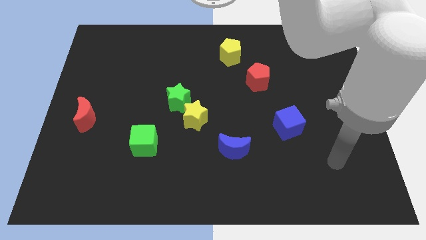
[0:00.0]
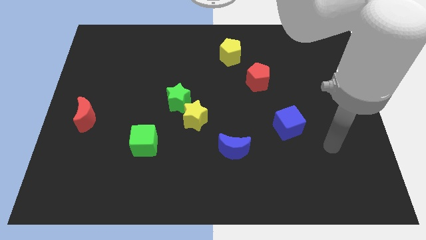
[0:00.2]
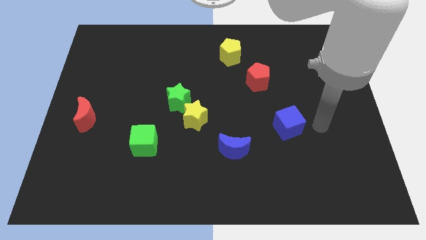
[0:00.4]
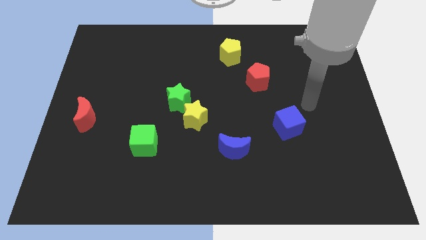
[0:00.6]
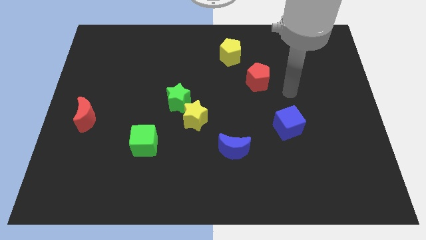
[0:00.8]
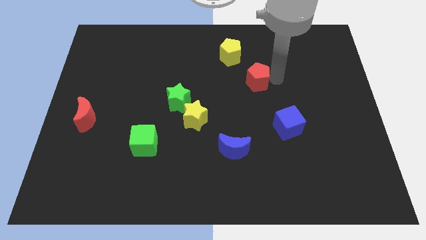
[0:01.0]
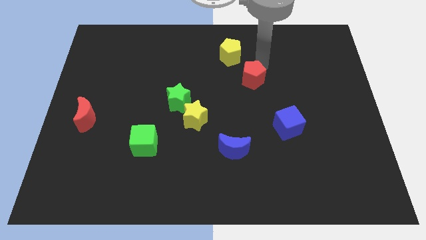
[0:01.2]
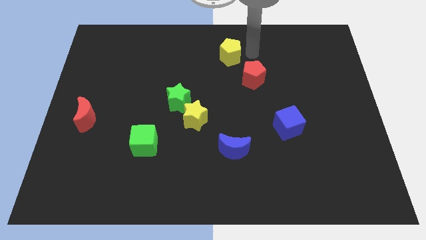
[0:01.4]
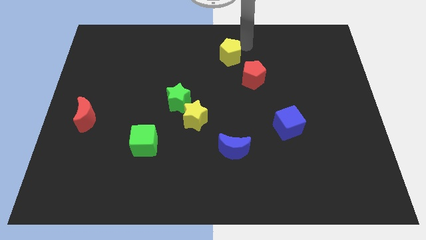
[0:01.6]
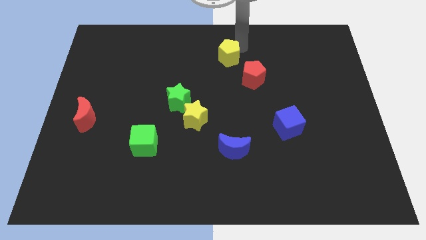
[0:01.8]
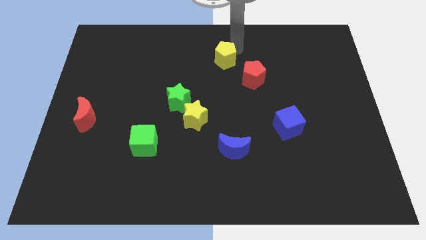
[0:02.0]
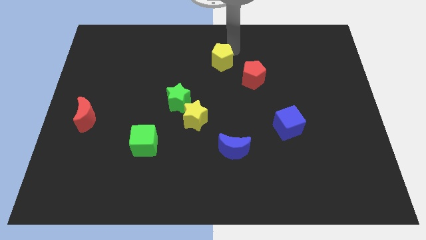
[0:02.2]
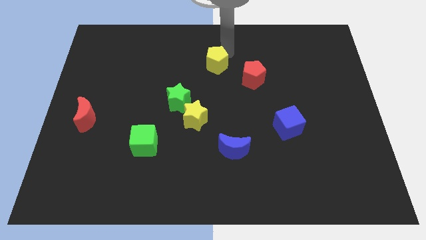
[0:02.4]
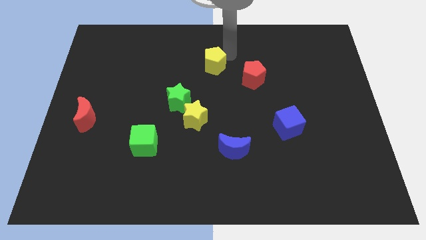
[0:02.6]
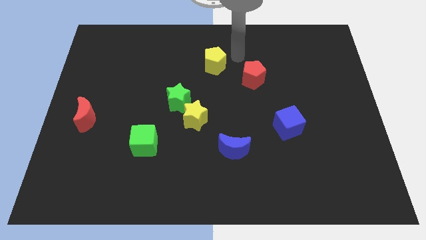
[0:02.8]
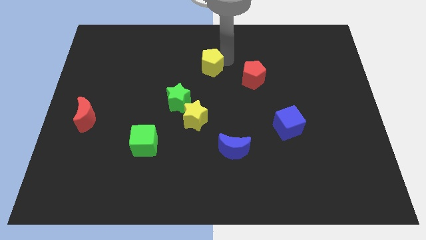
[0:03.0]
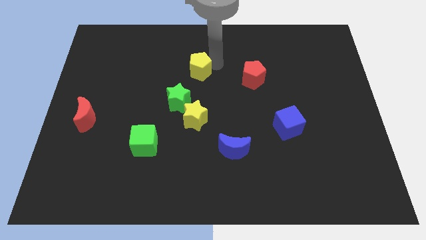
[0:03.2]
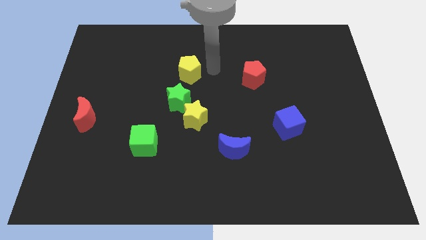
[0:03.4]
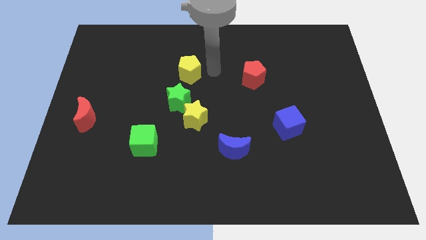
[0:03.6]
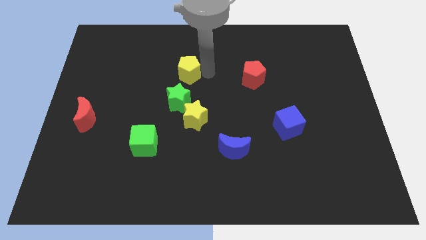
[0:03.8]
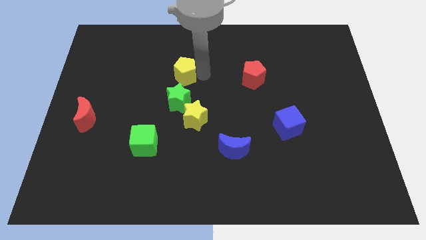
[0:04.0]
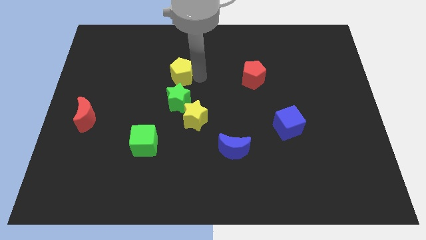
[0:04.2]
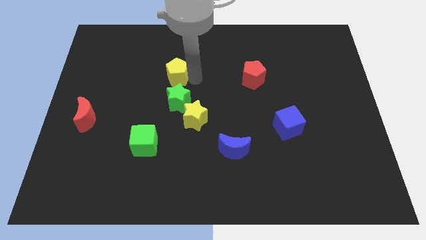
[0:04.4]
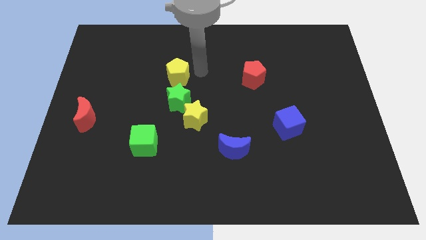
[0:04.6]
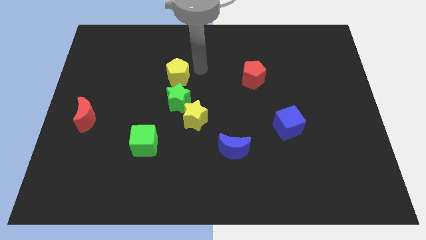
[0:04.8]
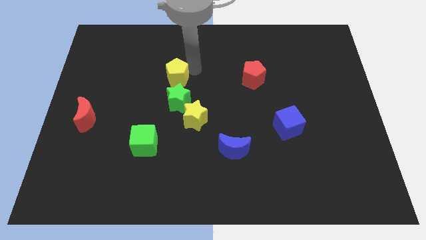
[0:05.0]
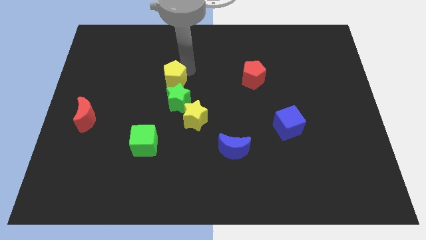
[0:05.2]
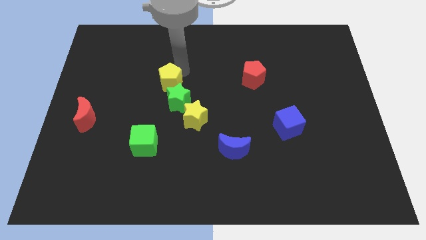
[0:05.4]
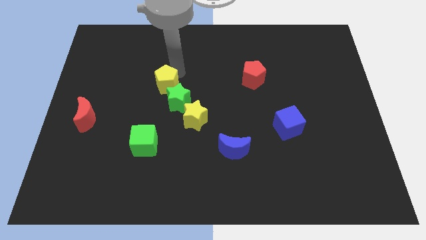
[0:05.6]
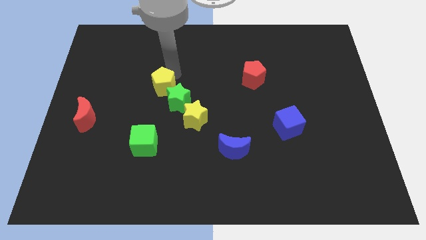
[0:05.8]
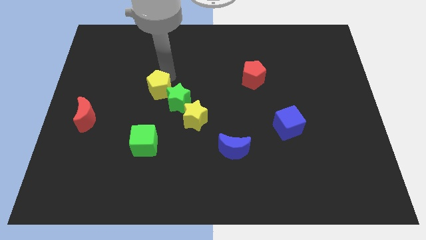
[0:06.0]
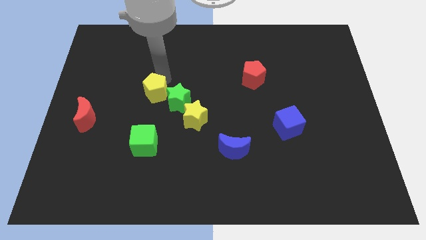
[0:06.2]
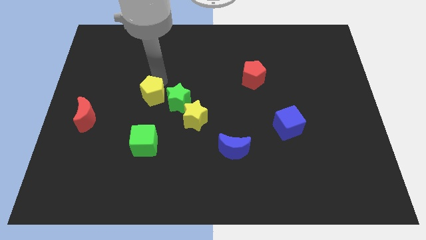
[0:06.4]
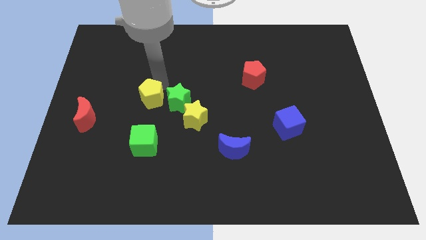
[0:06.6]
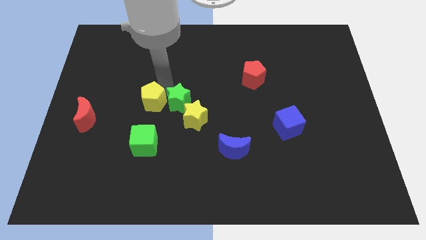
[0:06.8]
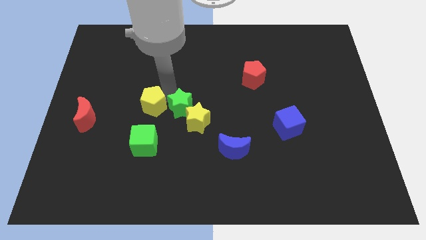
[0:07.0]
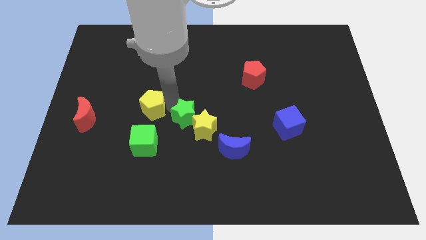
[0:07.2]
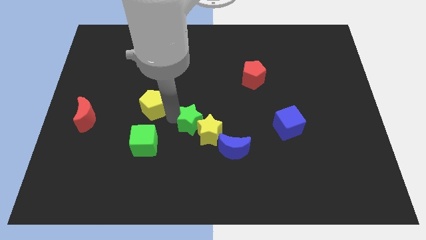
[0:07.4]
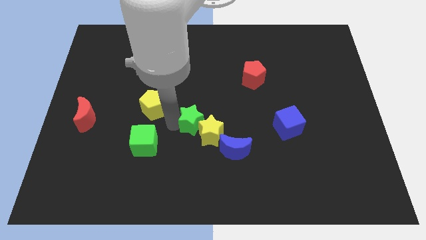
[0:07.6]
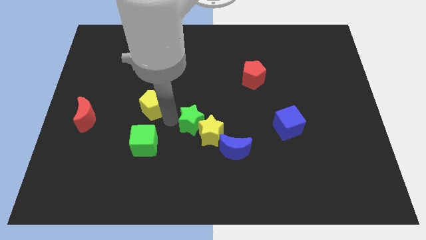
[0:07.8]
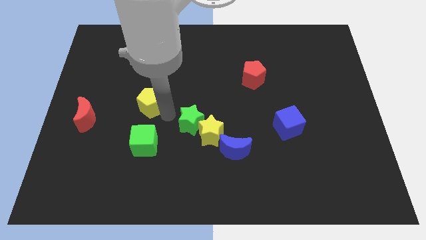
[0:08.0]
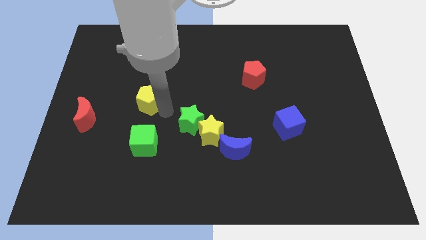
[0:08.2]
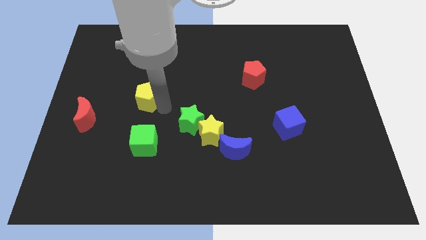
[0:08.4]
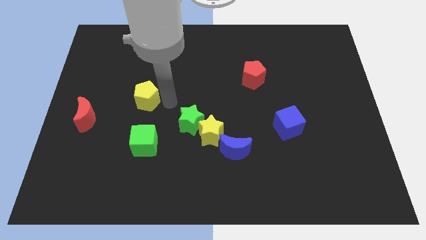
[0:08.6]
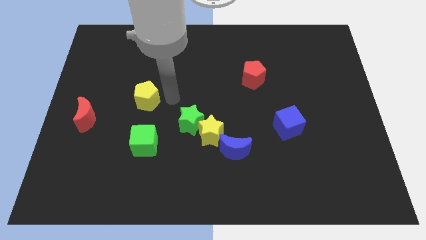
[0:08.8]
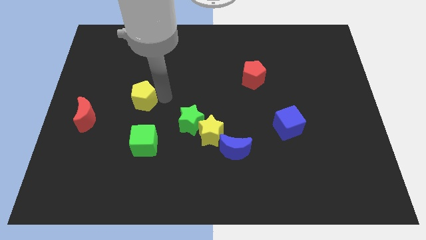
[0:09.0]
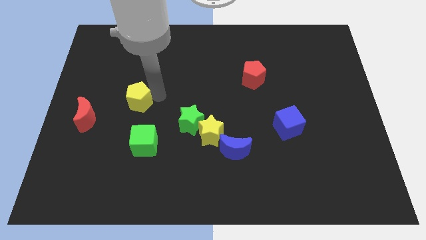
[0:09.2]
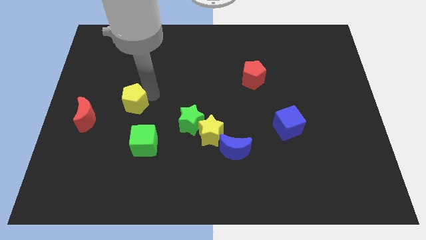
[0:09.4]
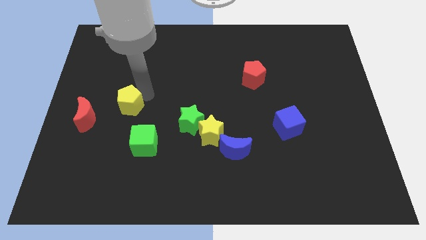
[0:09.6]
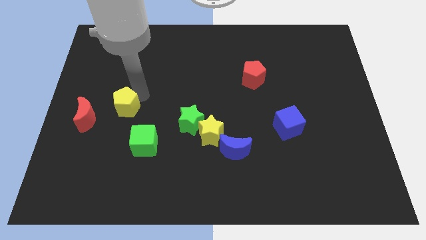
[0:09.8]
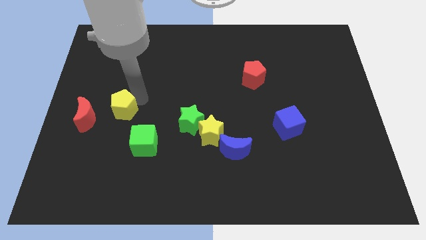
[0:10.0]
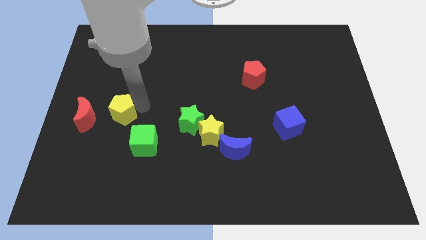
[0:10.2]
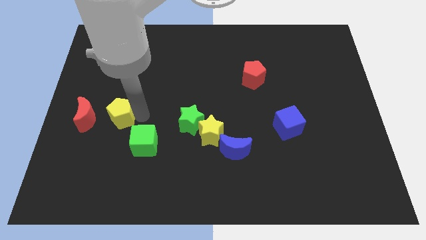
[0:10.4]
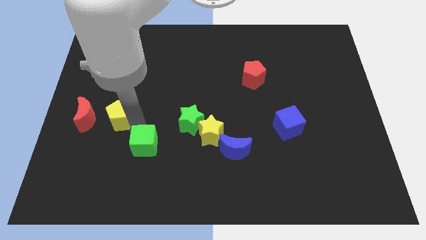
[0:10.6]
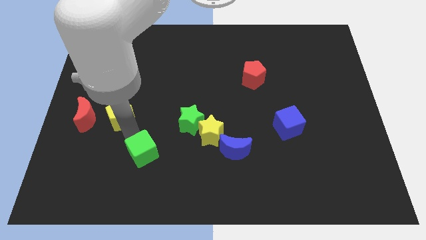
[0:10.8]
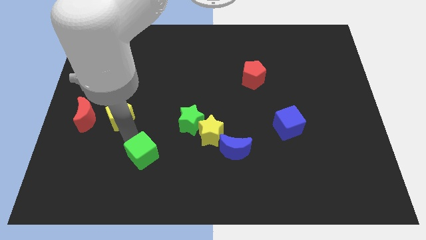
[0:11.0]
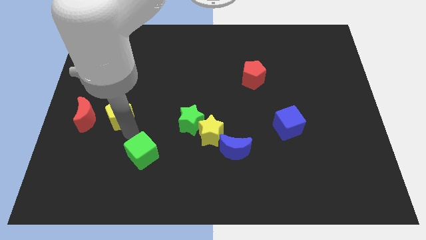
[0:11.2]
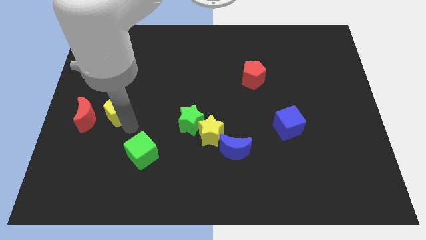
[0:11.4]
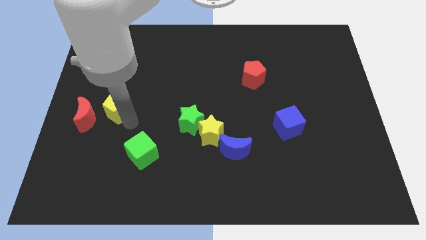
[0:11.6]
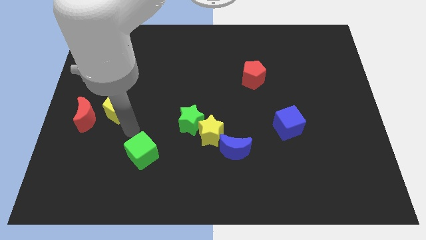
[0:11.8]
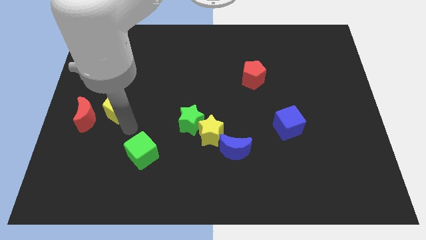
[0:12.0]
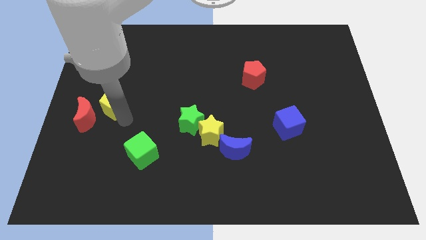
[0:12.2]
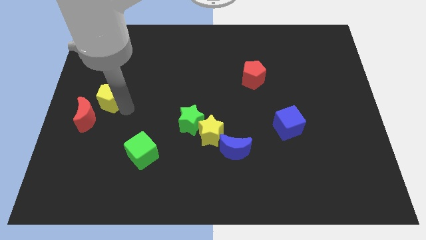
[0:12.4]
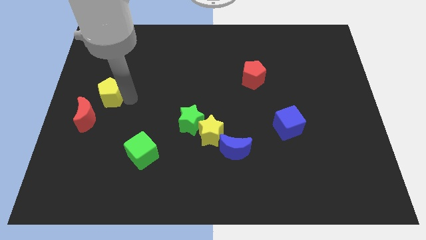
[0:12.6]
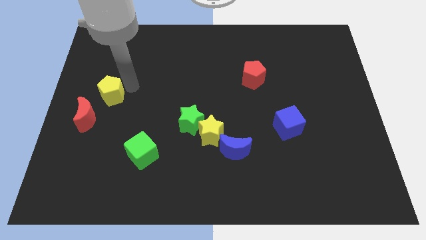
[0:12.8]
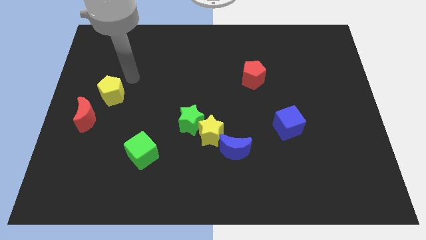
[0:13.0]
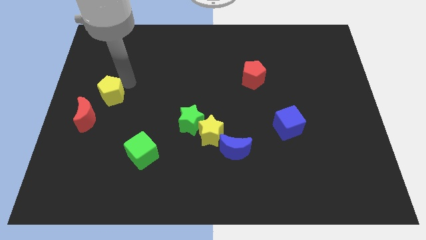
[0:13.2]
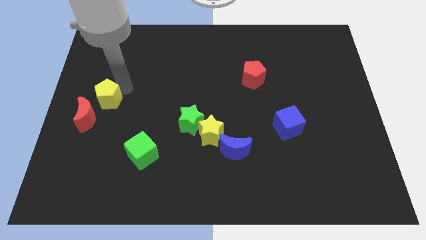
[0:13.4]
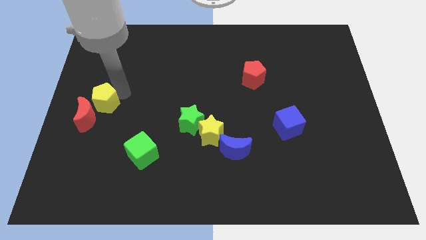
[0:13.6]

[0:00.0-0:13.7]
push the yellow pentagon towards the red moon

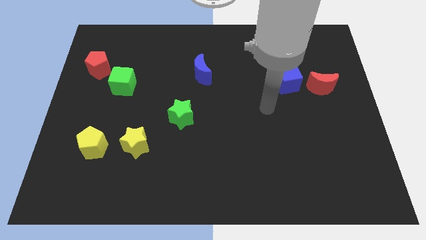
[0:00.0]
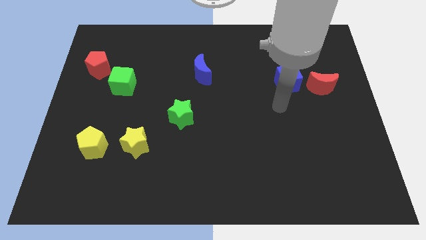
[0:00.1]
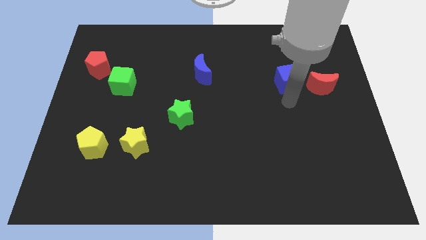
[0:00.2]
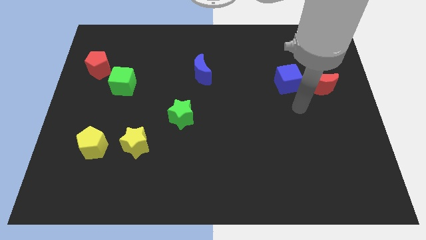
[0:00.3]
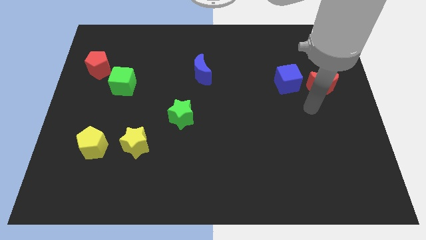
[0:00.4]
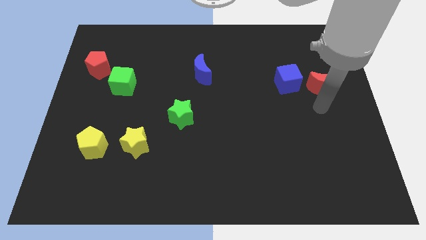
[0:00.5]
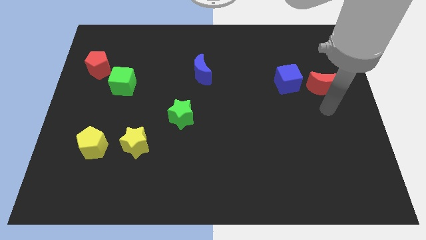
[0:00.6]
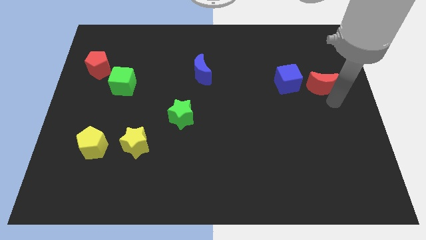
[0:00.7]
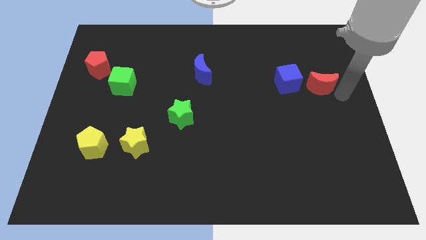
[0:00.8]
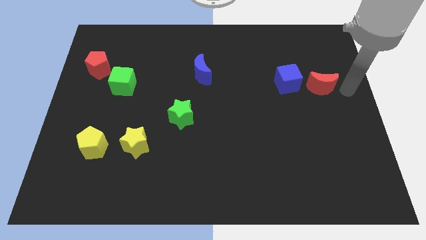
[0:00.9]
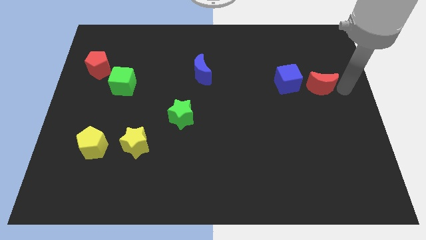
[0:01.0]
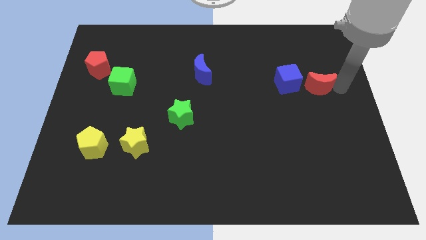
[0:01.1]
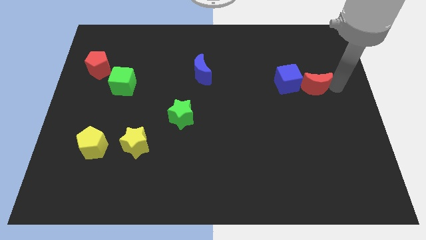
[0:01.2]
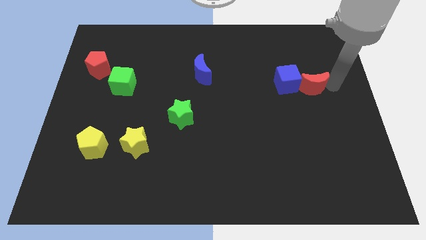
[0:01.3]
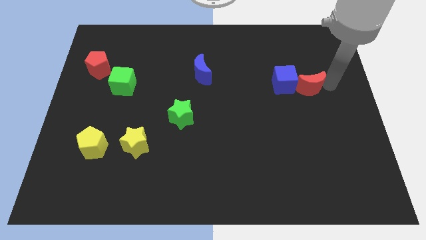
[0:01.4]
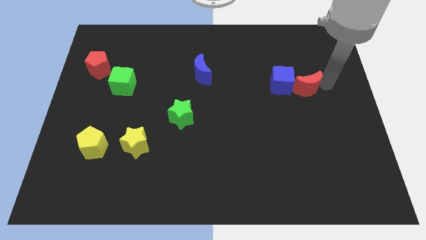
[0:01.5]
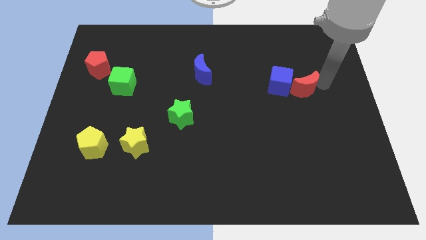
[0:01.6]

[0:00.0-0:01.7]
slide the red moon to the blue cube
